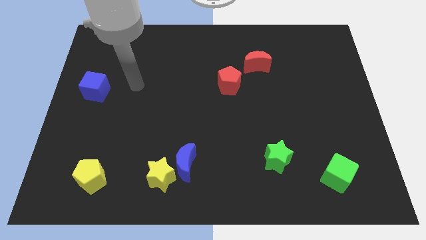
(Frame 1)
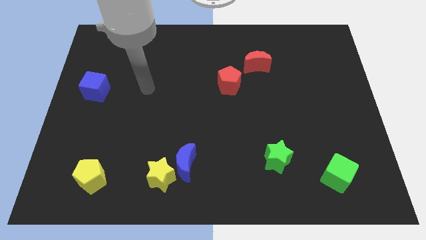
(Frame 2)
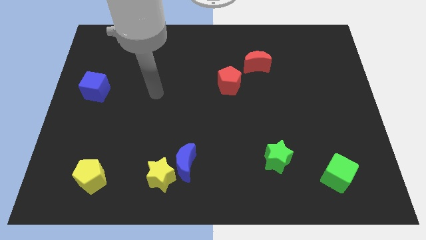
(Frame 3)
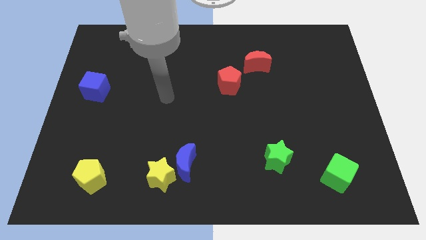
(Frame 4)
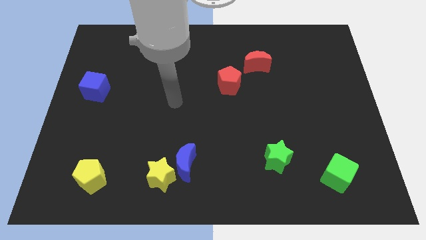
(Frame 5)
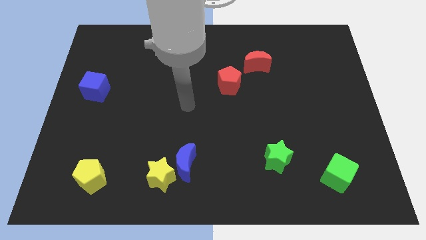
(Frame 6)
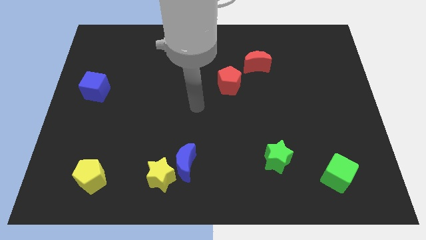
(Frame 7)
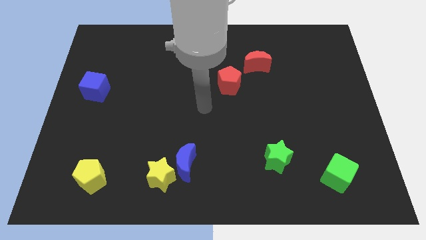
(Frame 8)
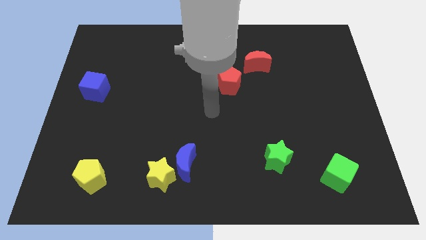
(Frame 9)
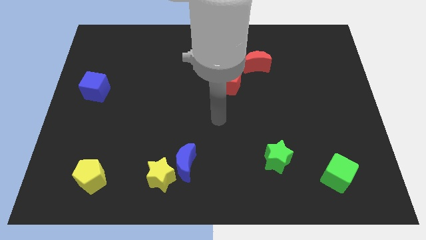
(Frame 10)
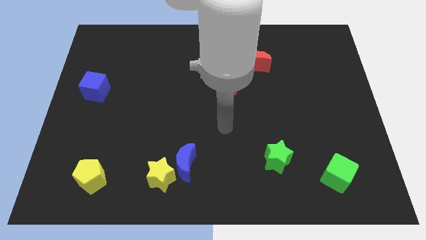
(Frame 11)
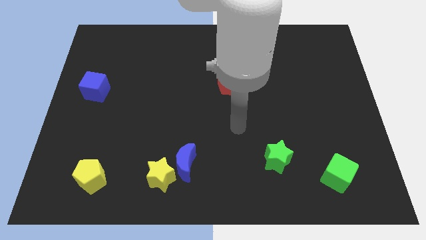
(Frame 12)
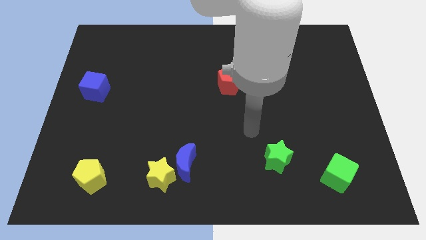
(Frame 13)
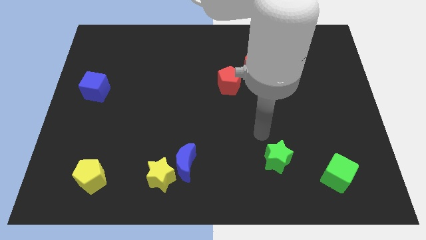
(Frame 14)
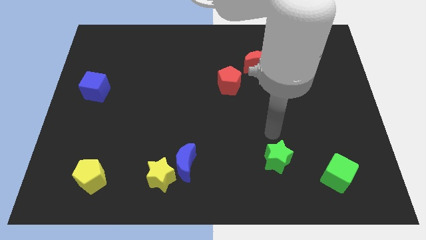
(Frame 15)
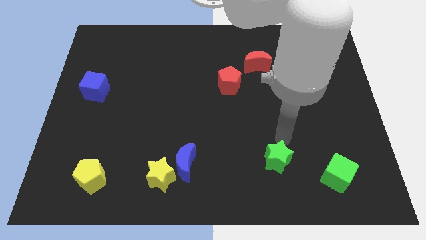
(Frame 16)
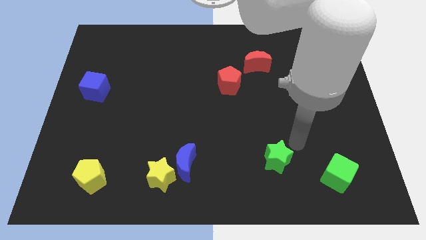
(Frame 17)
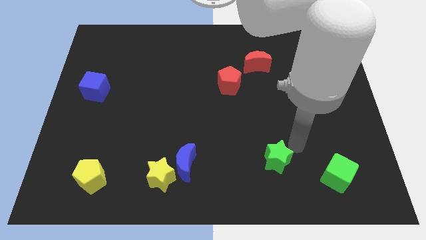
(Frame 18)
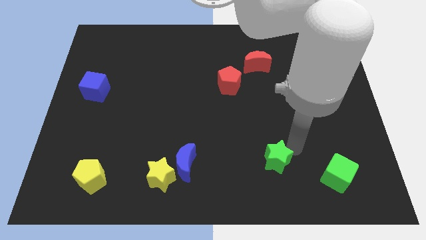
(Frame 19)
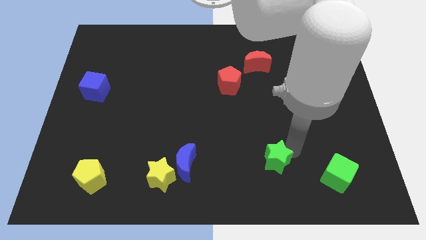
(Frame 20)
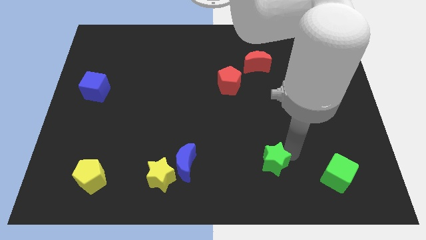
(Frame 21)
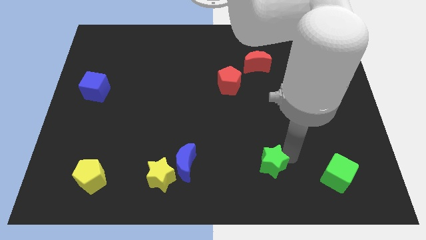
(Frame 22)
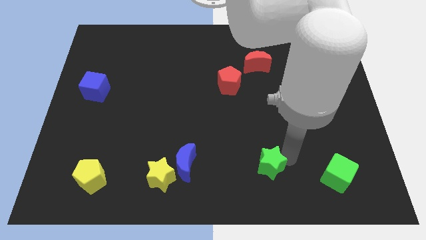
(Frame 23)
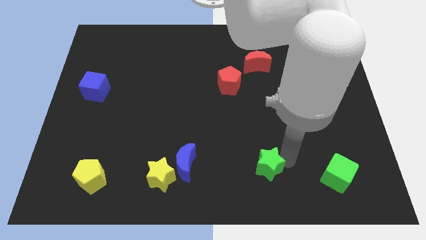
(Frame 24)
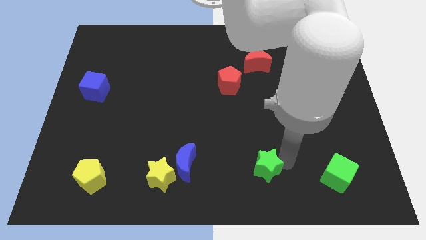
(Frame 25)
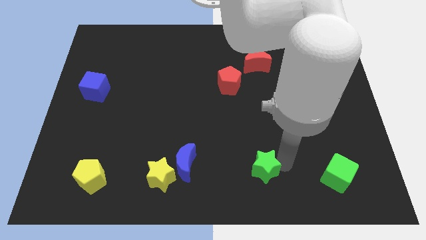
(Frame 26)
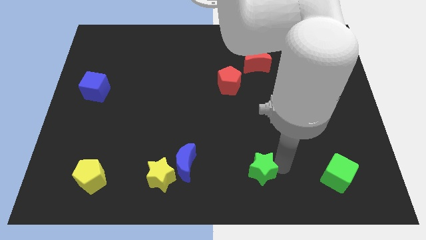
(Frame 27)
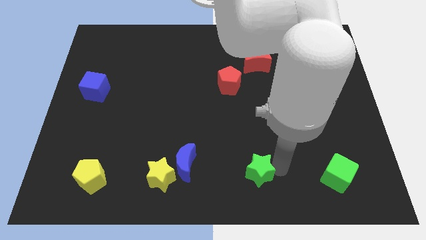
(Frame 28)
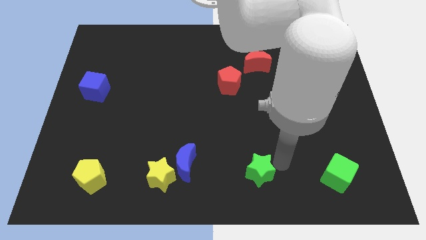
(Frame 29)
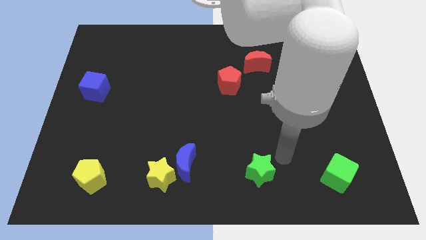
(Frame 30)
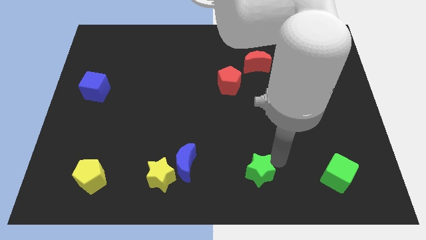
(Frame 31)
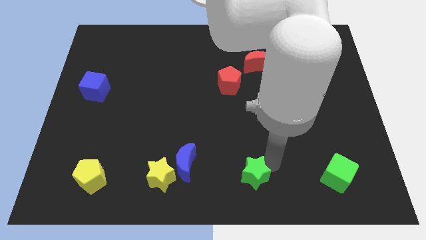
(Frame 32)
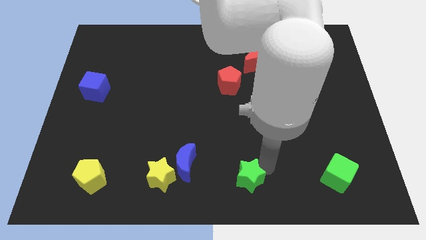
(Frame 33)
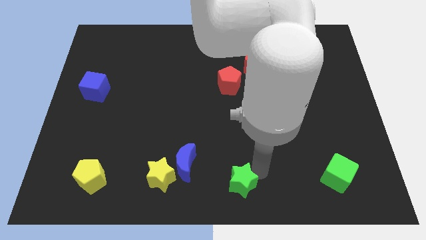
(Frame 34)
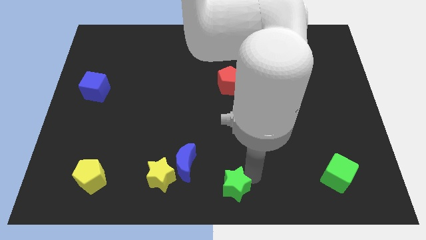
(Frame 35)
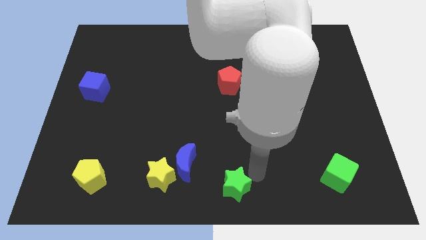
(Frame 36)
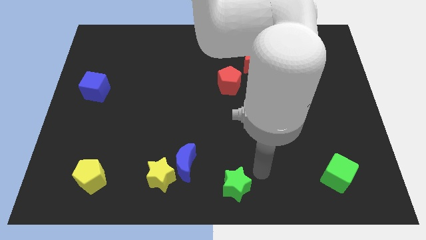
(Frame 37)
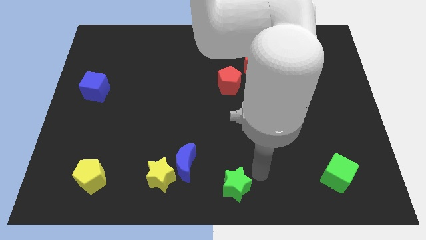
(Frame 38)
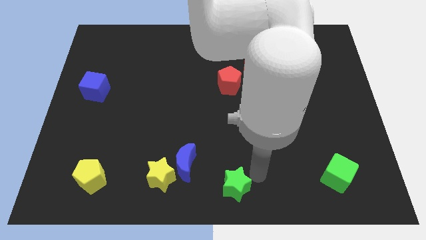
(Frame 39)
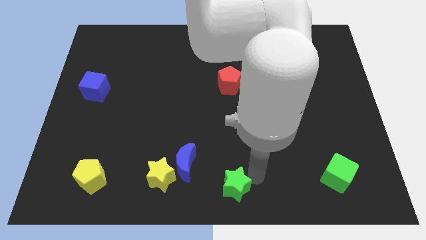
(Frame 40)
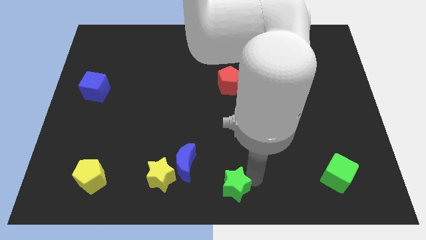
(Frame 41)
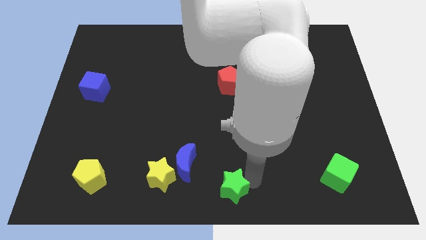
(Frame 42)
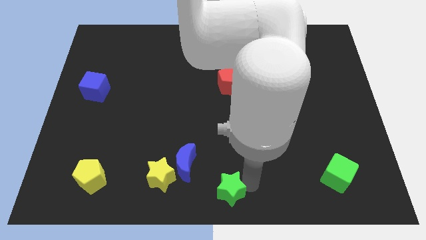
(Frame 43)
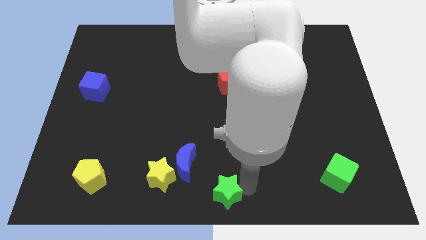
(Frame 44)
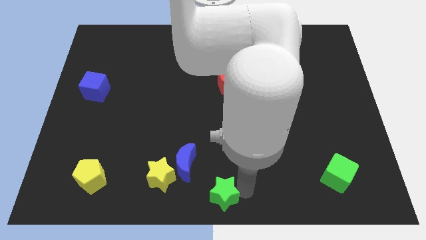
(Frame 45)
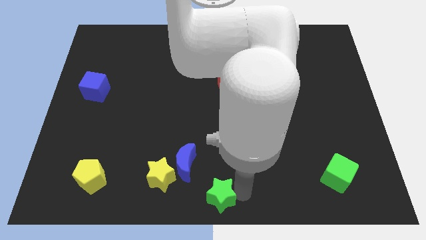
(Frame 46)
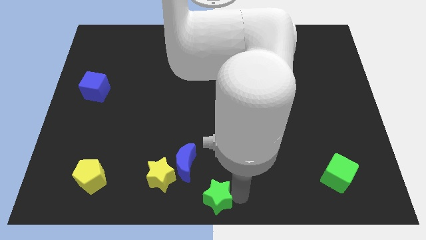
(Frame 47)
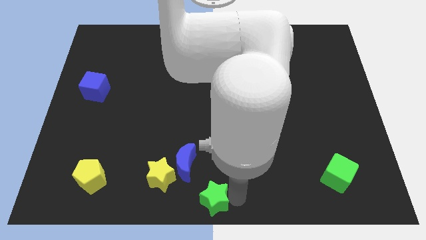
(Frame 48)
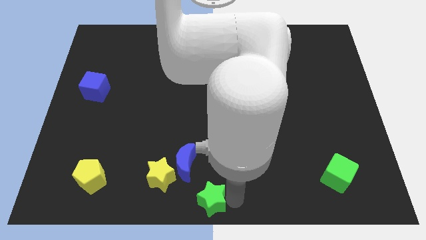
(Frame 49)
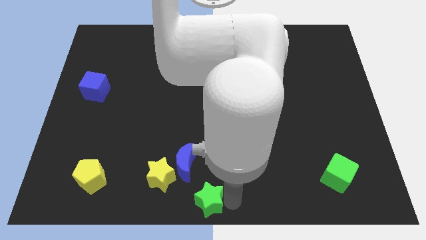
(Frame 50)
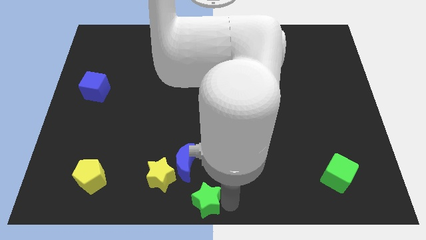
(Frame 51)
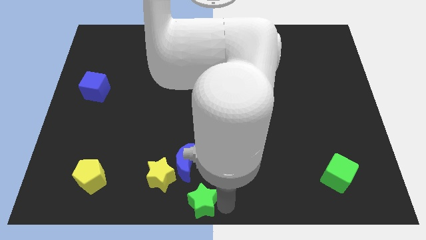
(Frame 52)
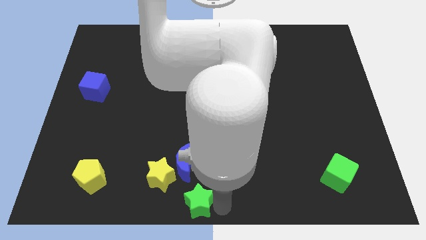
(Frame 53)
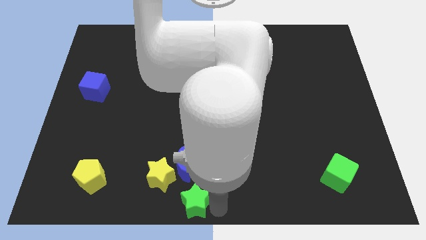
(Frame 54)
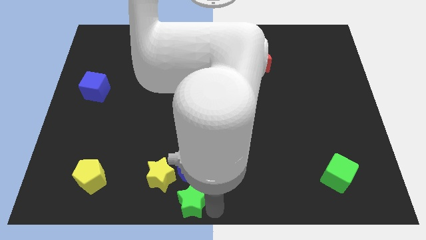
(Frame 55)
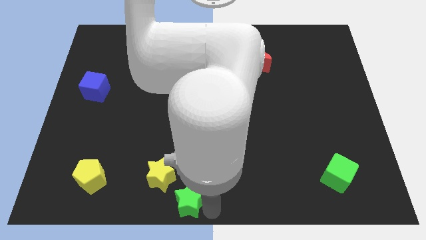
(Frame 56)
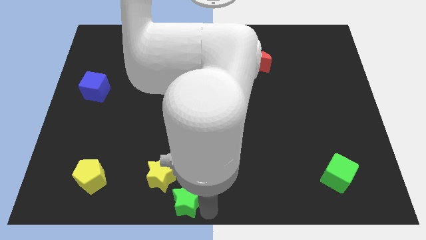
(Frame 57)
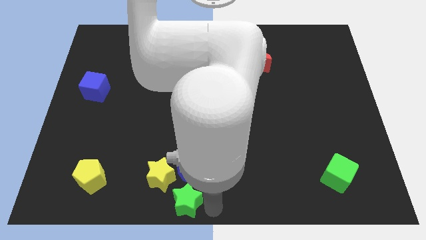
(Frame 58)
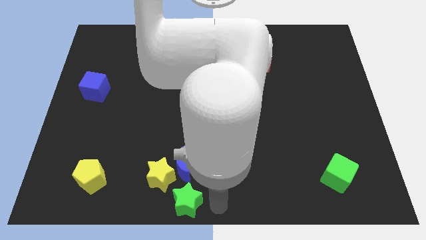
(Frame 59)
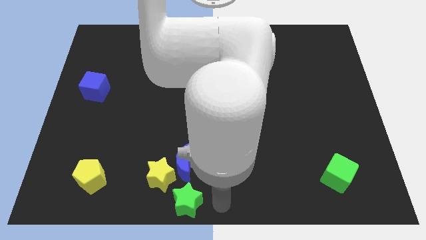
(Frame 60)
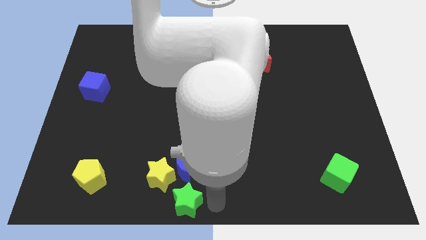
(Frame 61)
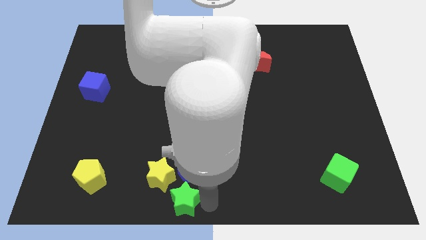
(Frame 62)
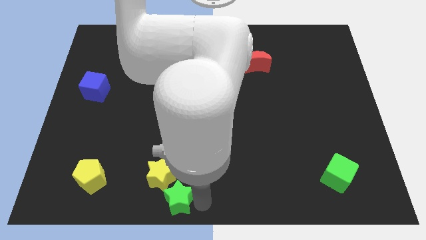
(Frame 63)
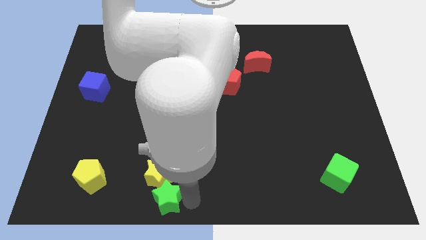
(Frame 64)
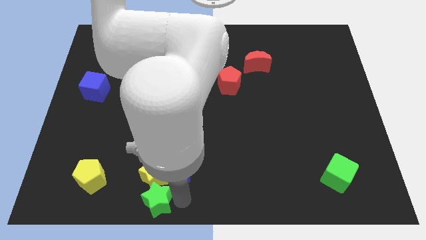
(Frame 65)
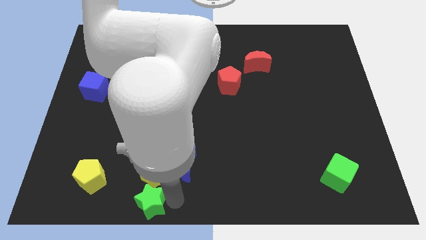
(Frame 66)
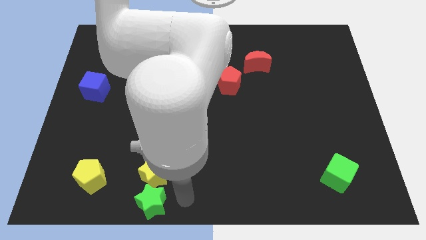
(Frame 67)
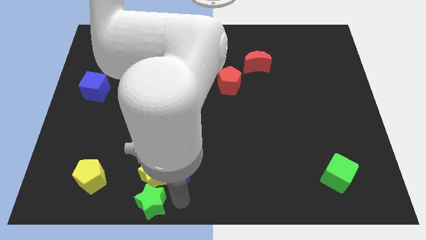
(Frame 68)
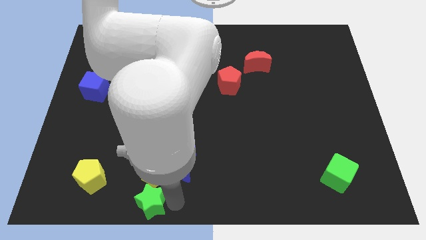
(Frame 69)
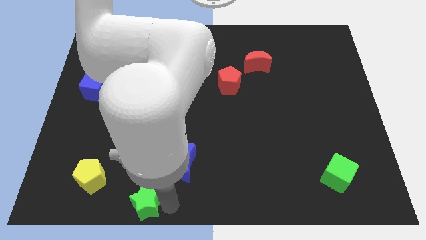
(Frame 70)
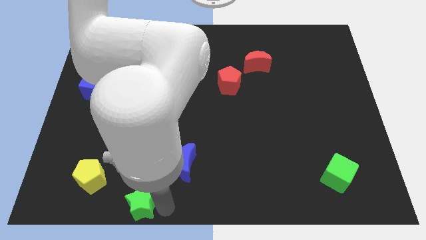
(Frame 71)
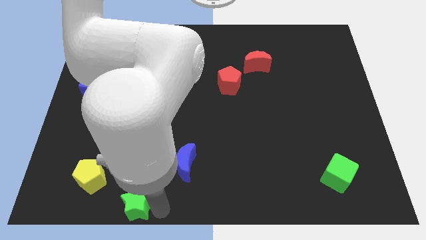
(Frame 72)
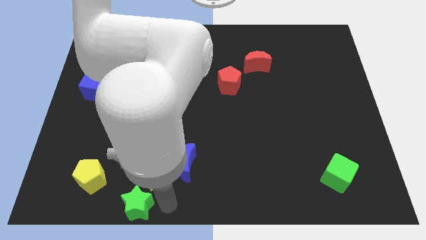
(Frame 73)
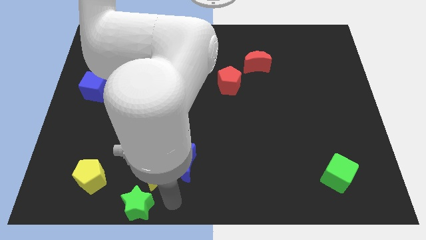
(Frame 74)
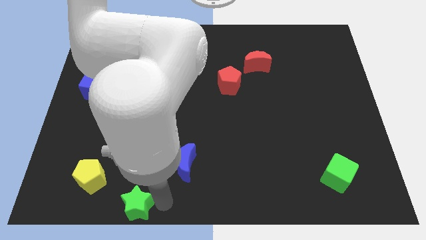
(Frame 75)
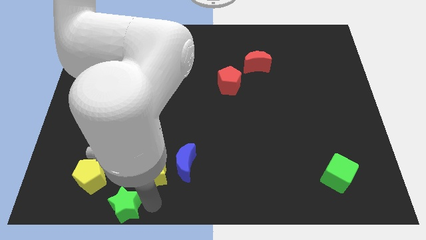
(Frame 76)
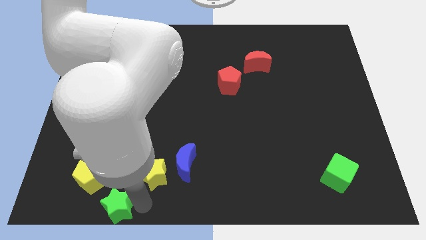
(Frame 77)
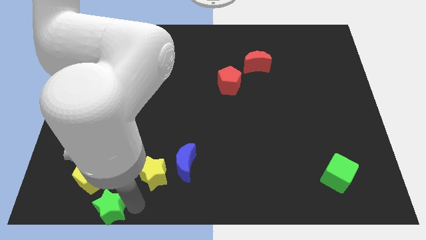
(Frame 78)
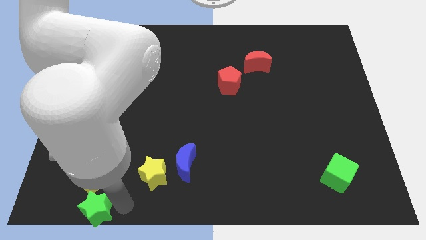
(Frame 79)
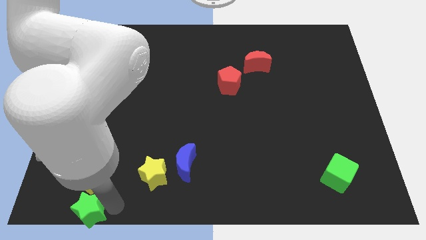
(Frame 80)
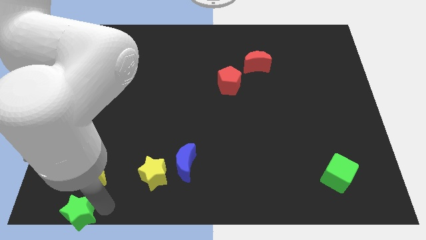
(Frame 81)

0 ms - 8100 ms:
put the green star to the bottom left of the board
